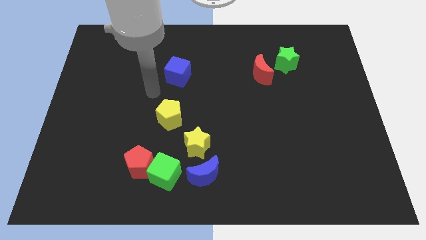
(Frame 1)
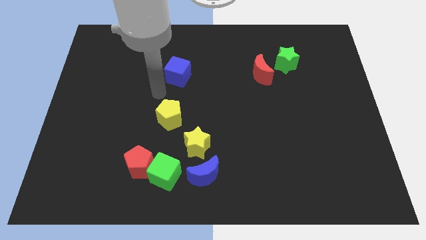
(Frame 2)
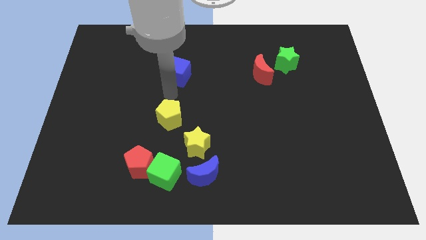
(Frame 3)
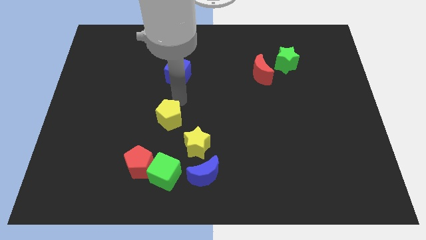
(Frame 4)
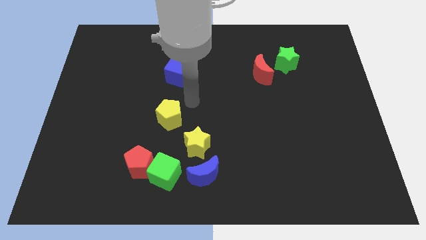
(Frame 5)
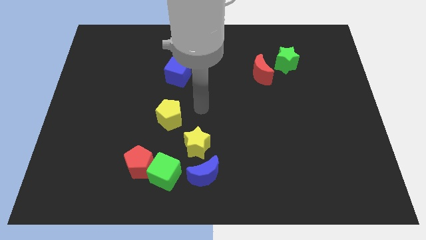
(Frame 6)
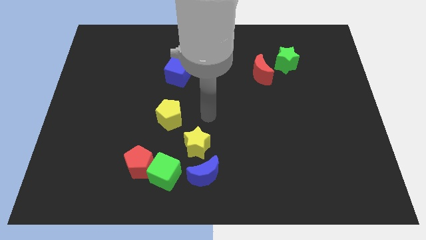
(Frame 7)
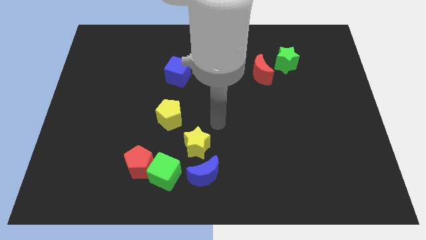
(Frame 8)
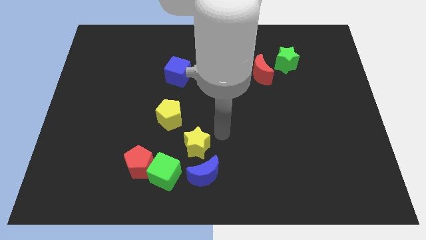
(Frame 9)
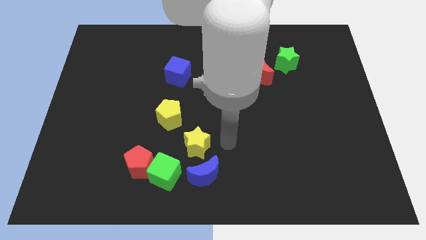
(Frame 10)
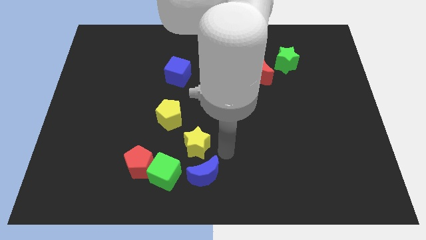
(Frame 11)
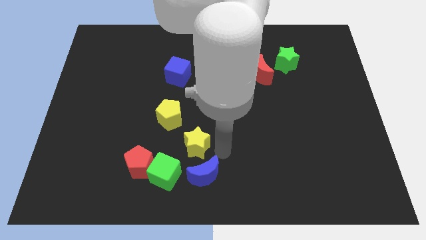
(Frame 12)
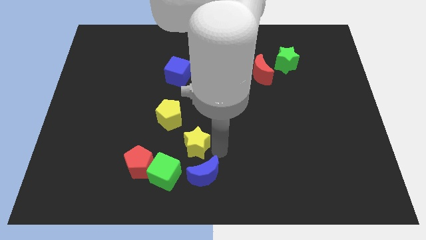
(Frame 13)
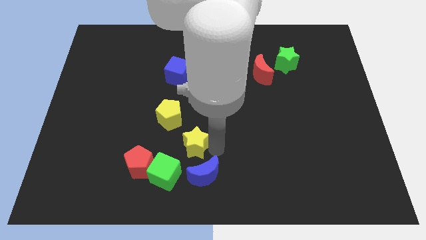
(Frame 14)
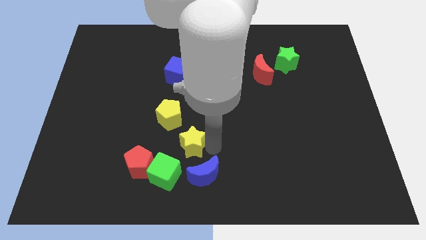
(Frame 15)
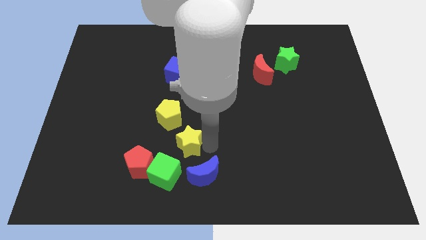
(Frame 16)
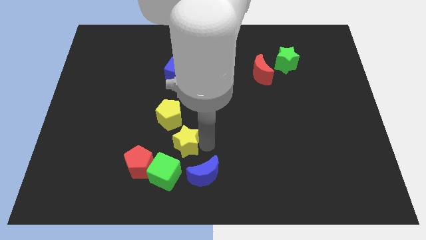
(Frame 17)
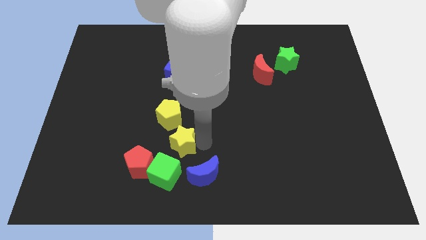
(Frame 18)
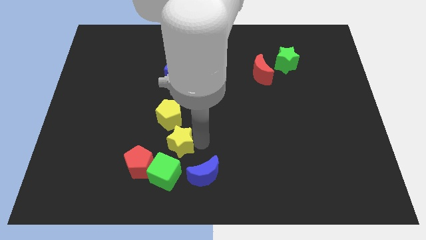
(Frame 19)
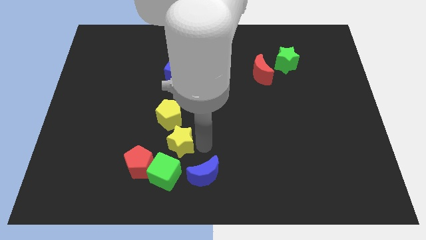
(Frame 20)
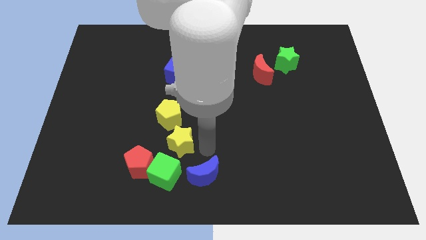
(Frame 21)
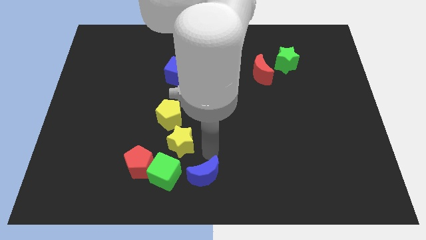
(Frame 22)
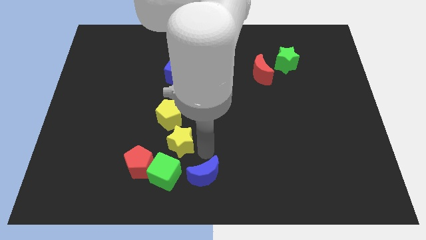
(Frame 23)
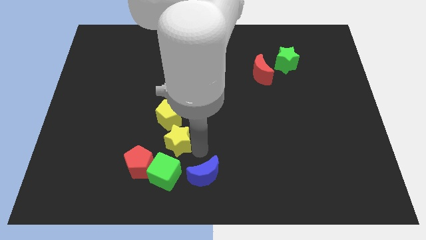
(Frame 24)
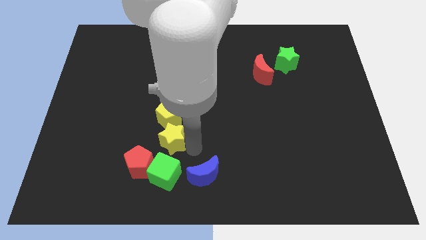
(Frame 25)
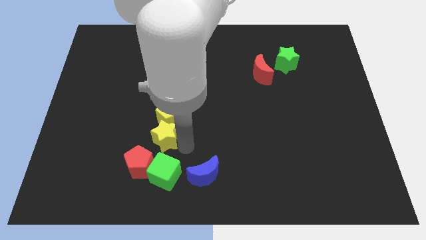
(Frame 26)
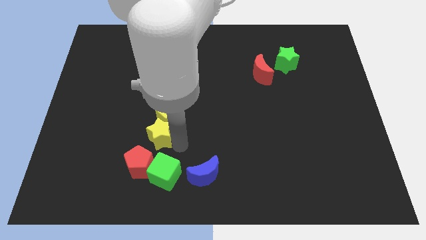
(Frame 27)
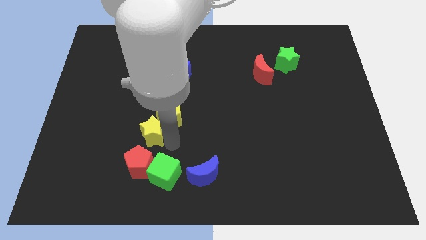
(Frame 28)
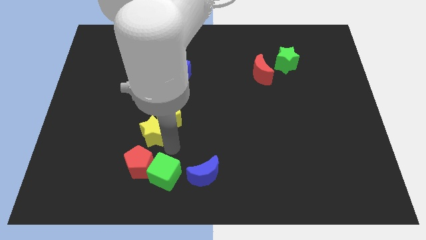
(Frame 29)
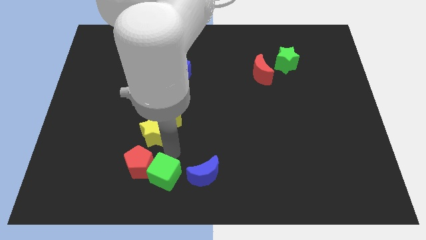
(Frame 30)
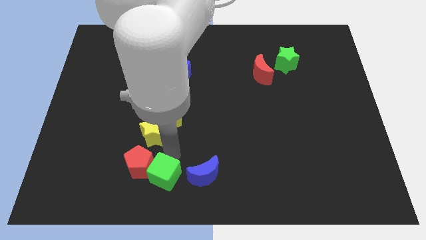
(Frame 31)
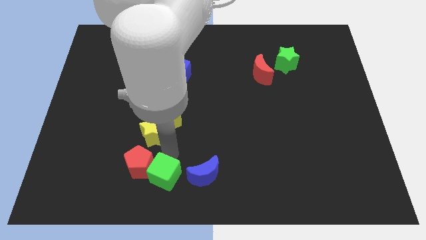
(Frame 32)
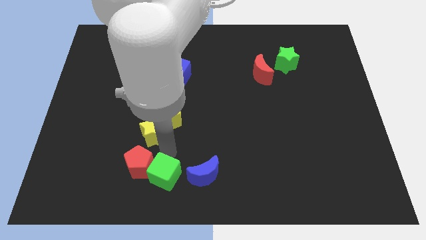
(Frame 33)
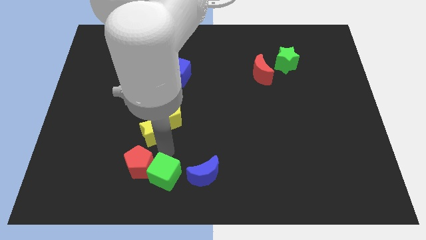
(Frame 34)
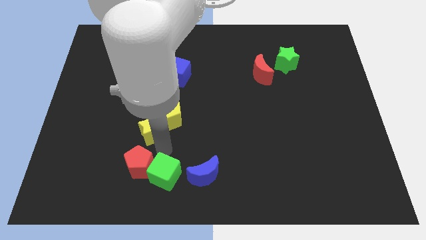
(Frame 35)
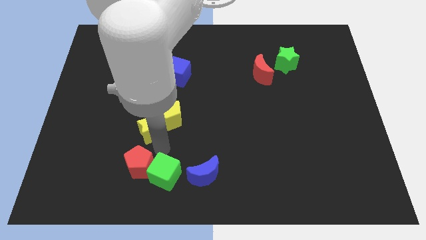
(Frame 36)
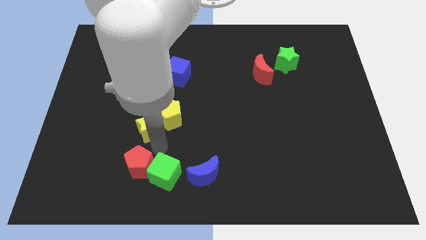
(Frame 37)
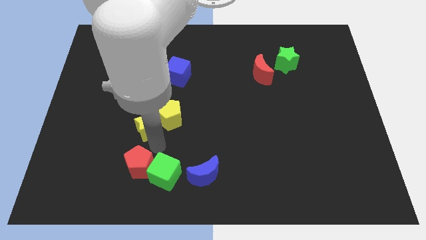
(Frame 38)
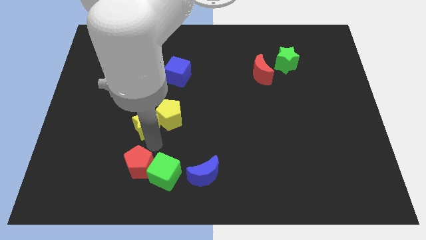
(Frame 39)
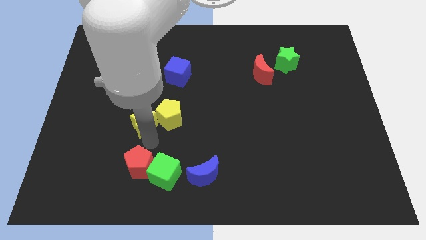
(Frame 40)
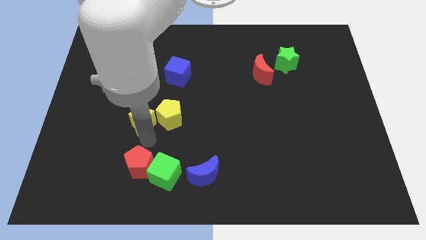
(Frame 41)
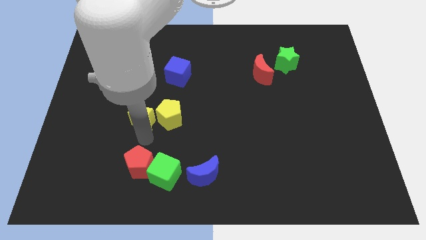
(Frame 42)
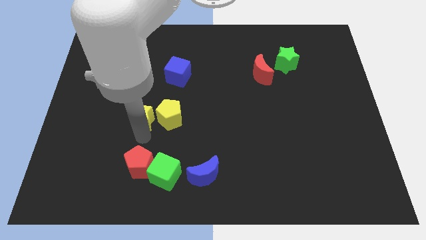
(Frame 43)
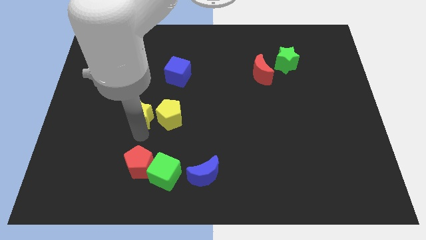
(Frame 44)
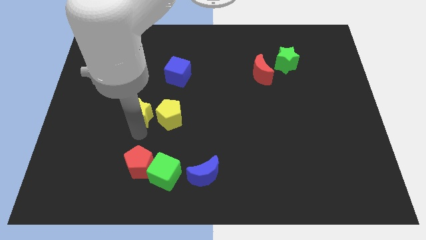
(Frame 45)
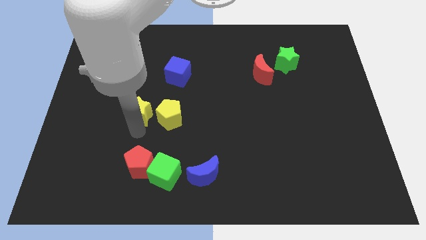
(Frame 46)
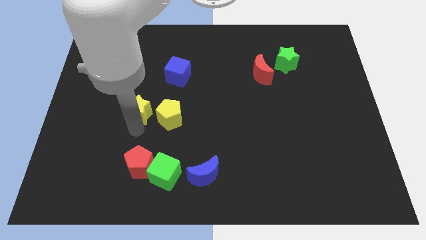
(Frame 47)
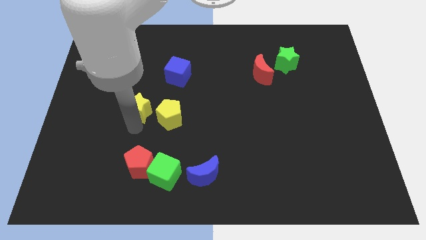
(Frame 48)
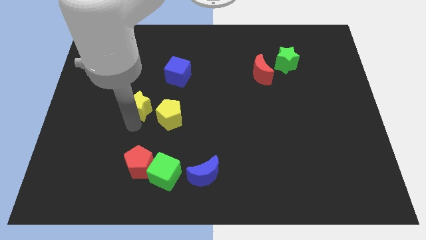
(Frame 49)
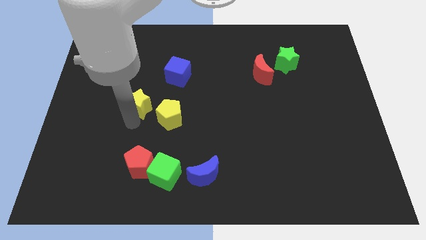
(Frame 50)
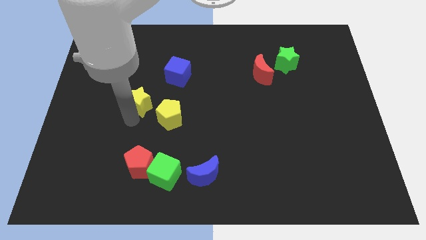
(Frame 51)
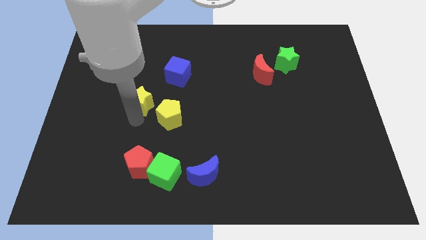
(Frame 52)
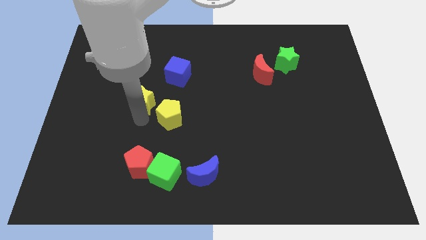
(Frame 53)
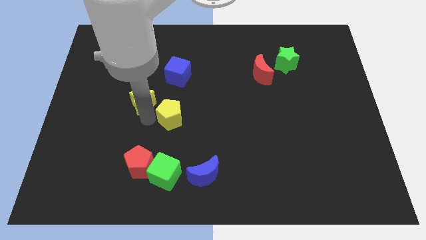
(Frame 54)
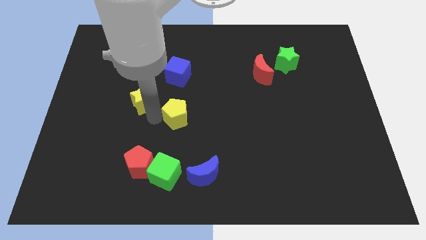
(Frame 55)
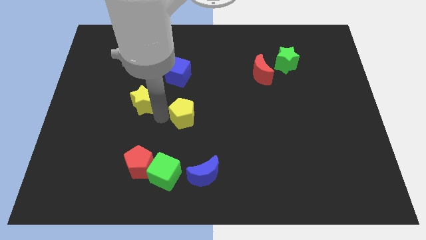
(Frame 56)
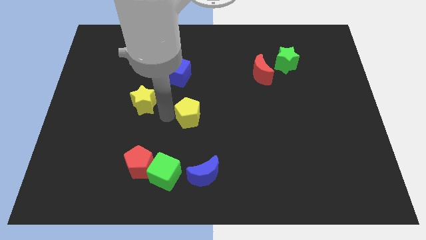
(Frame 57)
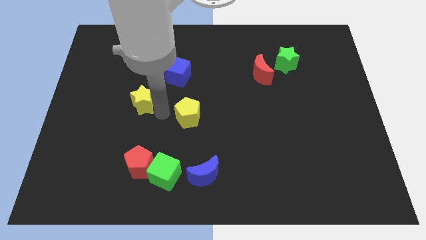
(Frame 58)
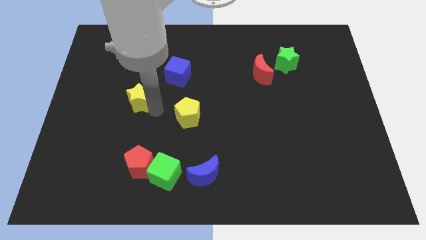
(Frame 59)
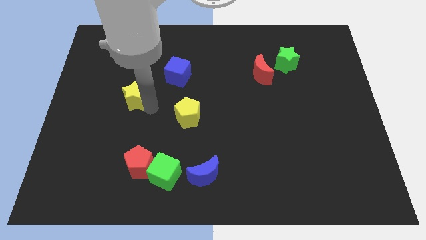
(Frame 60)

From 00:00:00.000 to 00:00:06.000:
push the yellow star upwards and then to the left

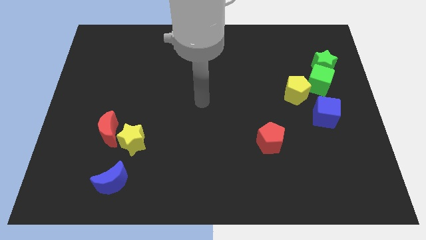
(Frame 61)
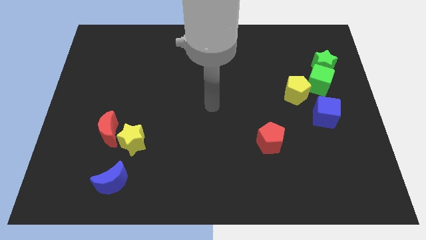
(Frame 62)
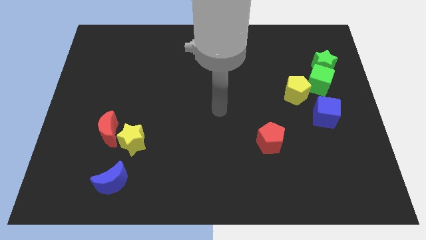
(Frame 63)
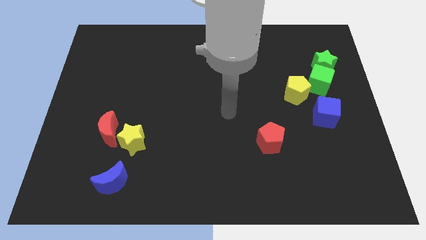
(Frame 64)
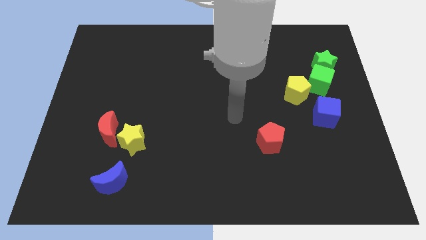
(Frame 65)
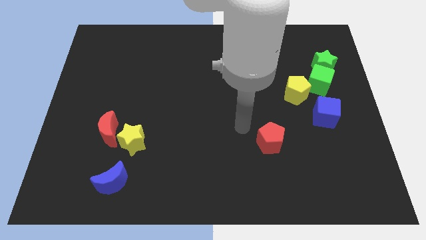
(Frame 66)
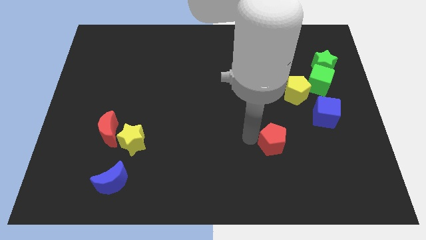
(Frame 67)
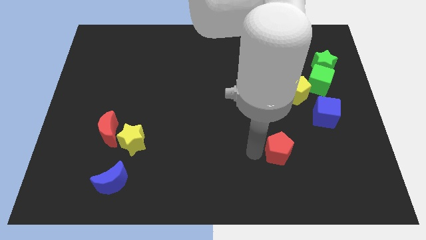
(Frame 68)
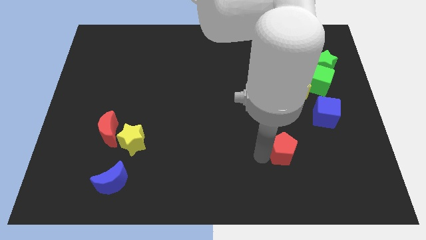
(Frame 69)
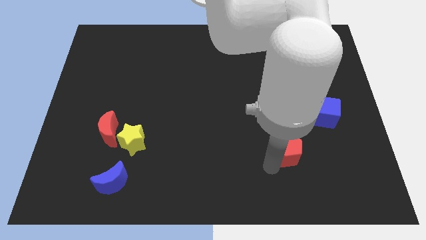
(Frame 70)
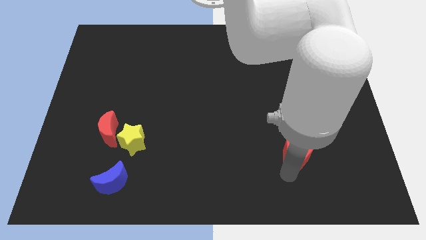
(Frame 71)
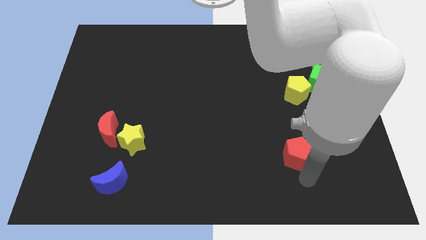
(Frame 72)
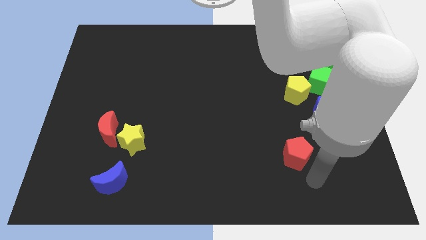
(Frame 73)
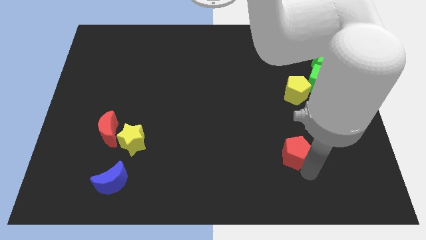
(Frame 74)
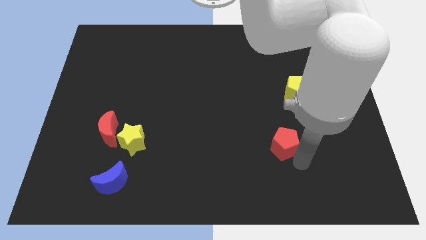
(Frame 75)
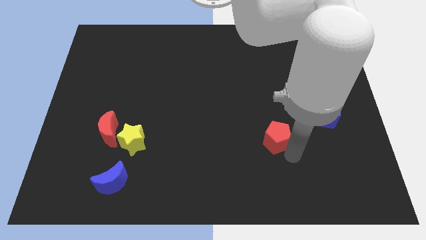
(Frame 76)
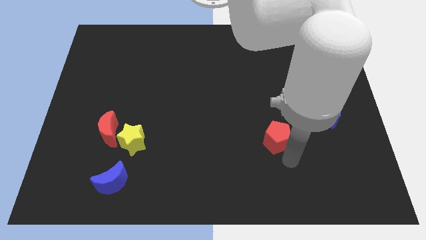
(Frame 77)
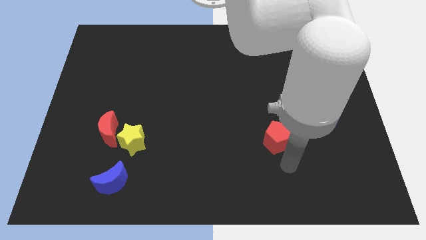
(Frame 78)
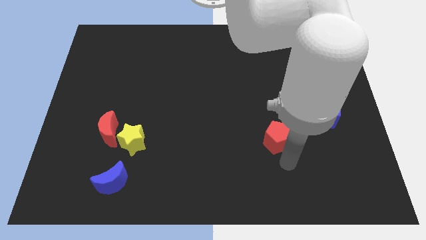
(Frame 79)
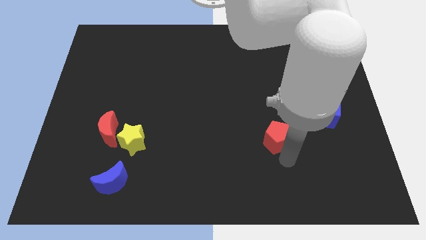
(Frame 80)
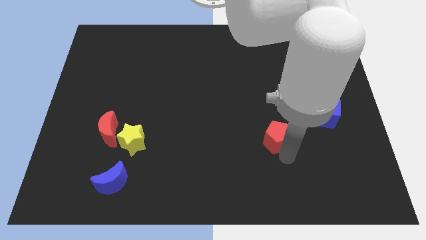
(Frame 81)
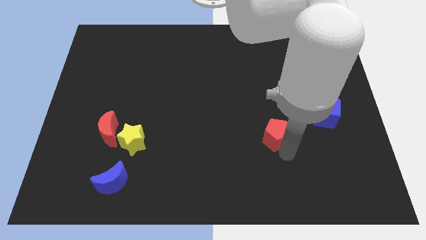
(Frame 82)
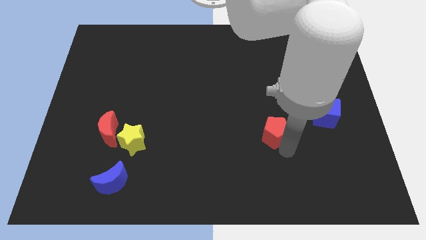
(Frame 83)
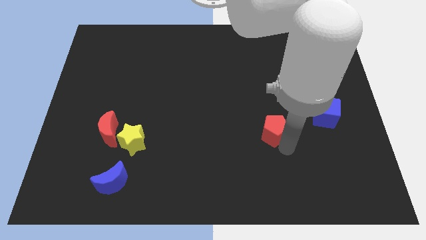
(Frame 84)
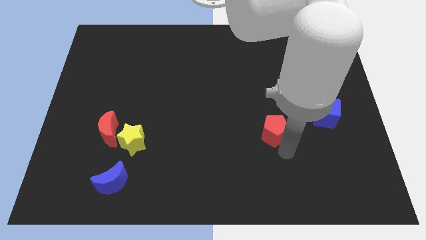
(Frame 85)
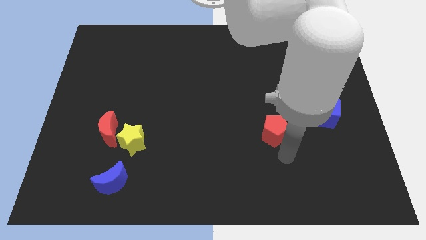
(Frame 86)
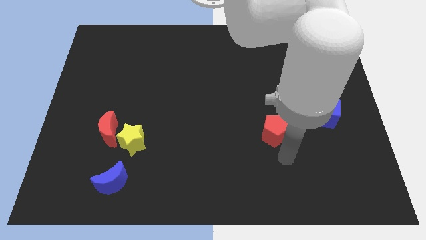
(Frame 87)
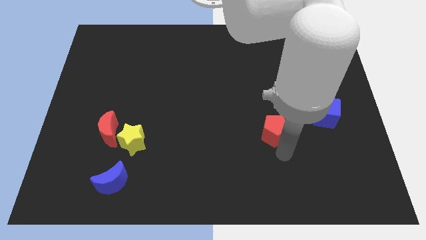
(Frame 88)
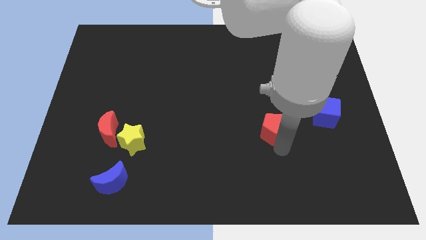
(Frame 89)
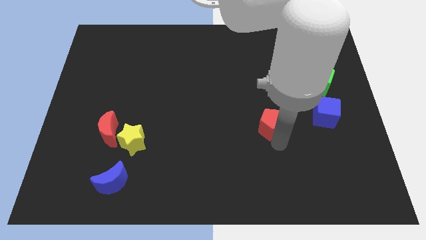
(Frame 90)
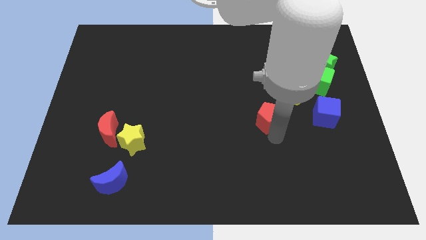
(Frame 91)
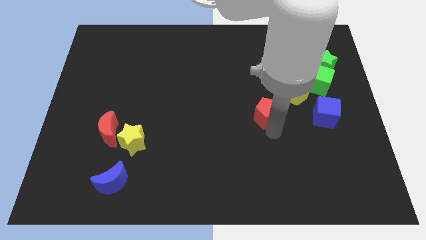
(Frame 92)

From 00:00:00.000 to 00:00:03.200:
push the red pentagon a bit up
